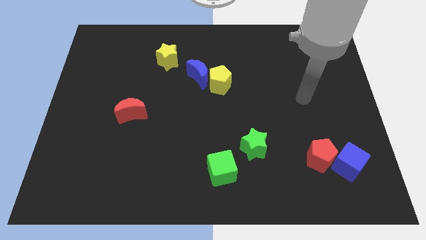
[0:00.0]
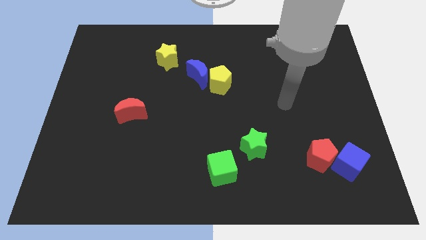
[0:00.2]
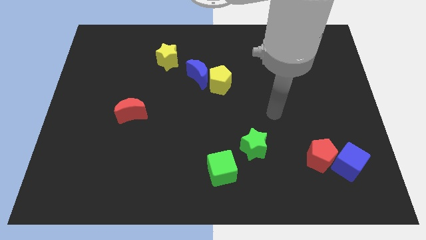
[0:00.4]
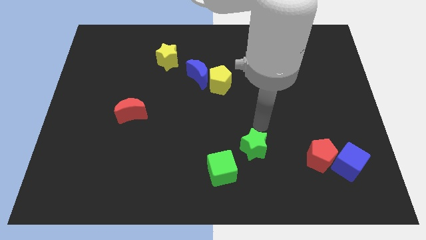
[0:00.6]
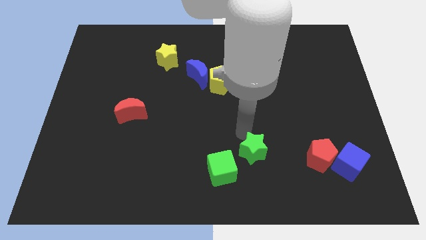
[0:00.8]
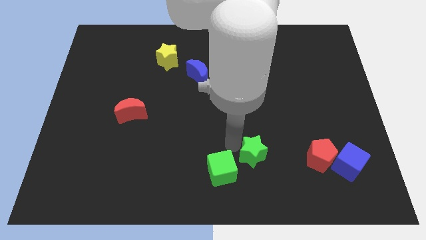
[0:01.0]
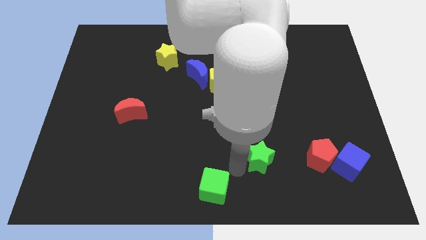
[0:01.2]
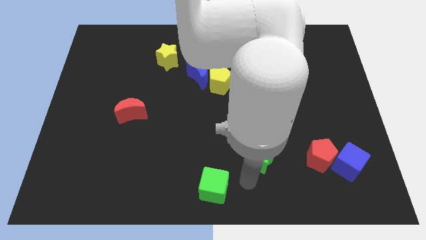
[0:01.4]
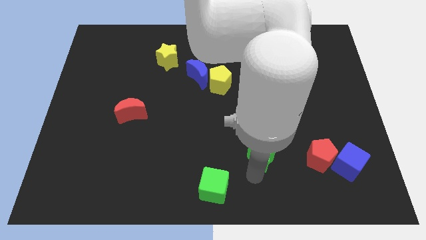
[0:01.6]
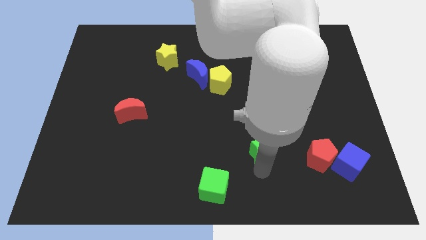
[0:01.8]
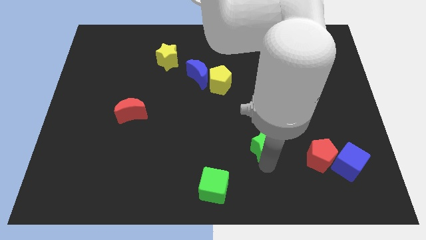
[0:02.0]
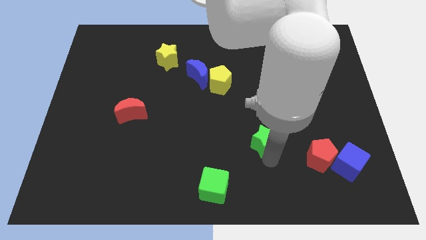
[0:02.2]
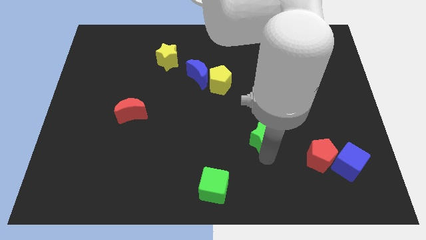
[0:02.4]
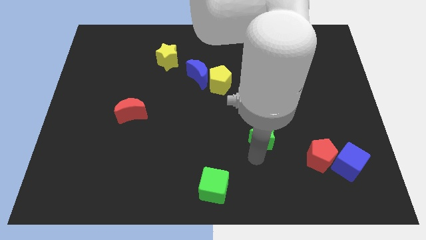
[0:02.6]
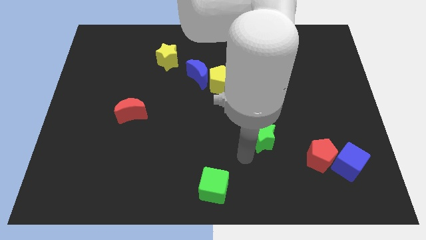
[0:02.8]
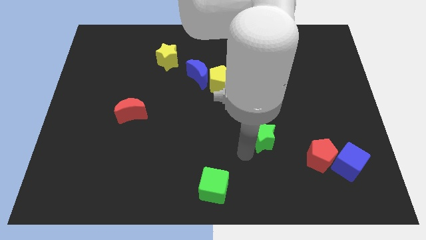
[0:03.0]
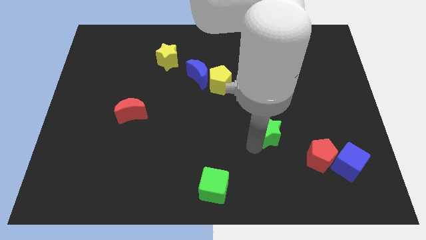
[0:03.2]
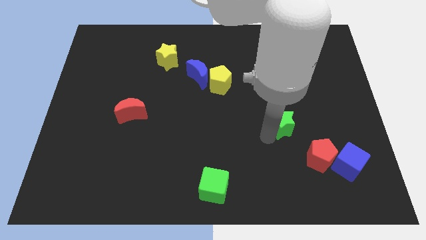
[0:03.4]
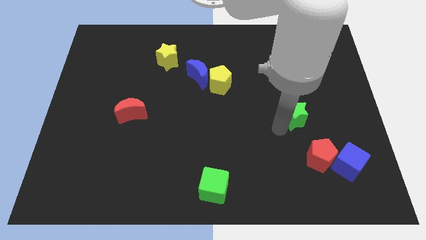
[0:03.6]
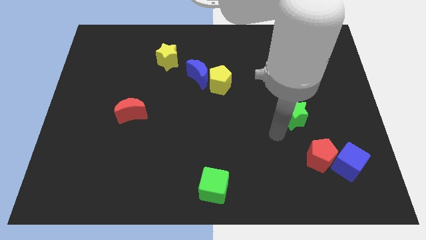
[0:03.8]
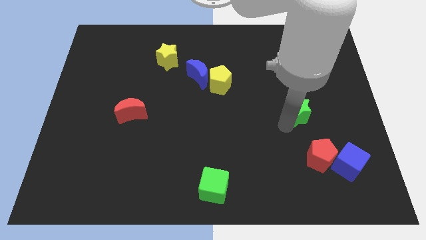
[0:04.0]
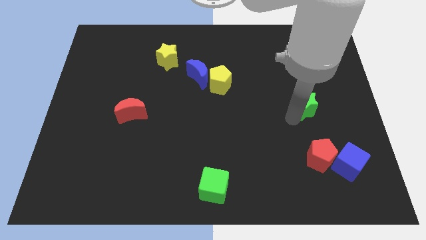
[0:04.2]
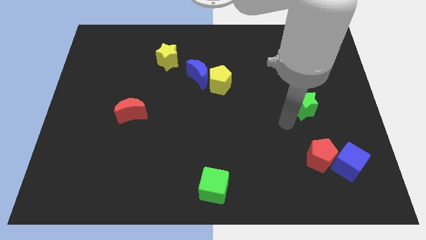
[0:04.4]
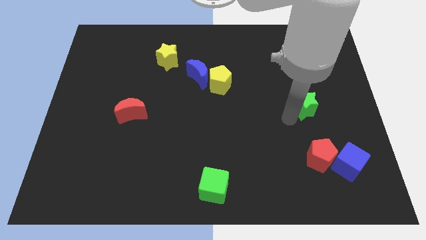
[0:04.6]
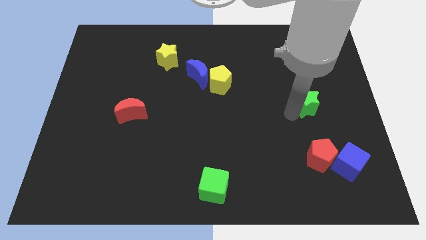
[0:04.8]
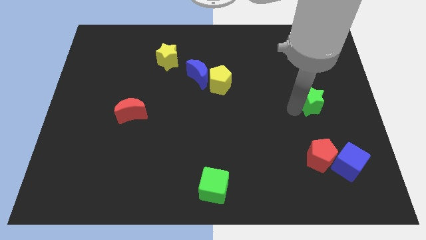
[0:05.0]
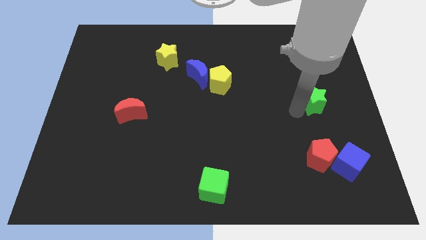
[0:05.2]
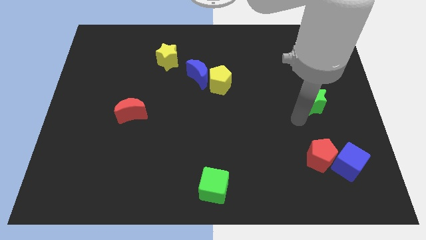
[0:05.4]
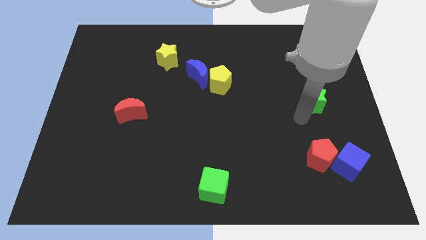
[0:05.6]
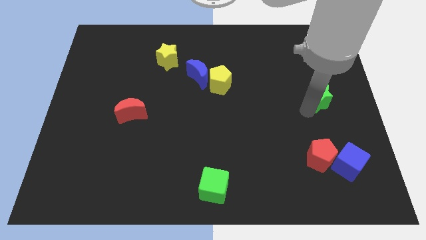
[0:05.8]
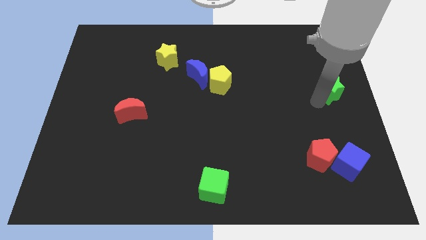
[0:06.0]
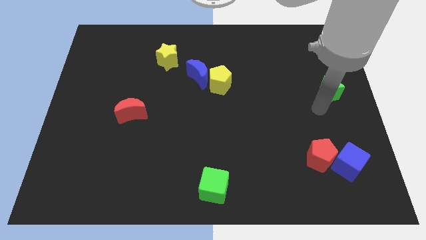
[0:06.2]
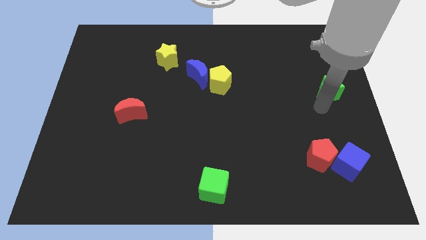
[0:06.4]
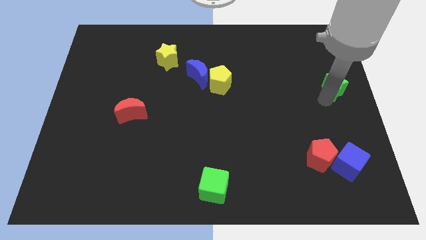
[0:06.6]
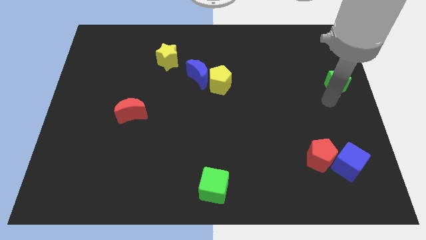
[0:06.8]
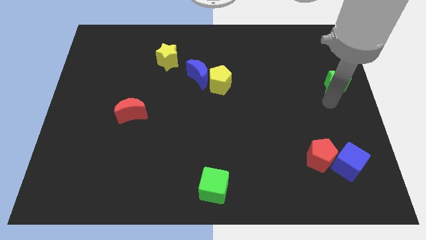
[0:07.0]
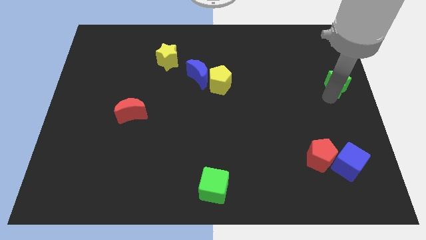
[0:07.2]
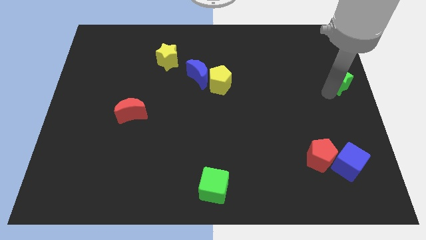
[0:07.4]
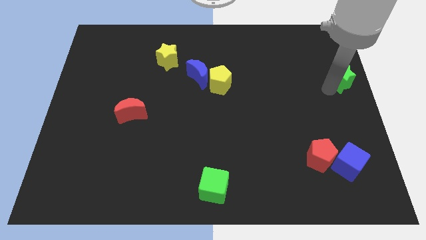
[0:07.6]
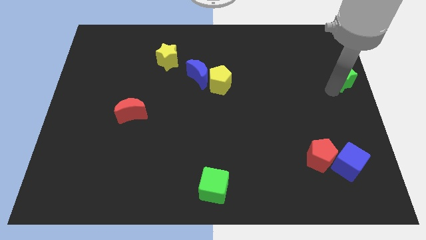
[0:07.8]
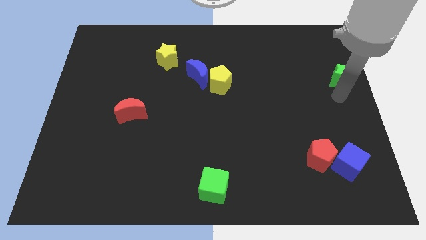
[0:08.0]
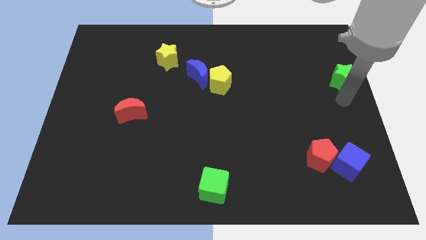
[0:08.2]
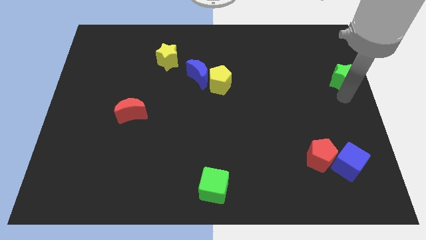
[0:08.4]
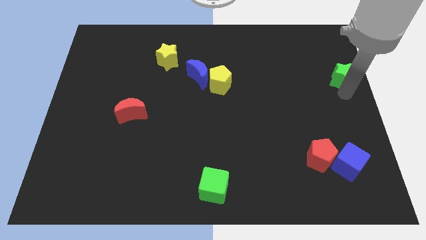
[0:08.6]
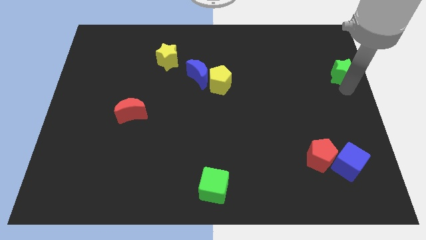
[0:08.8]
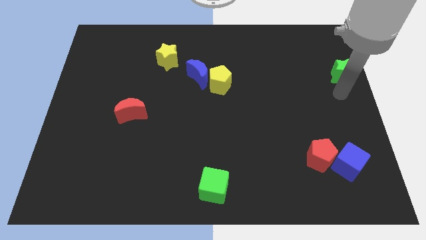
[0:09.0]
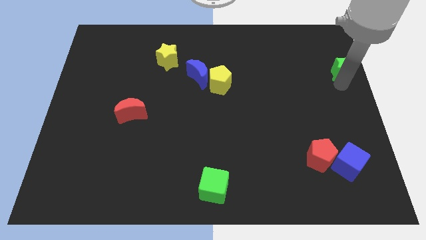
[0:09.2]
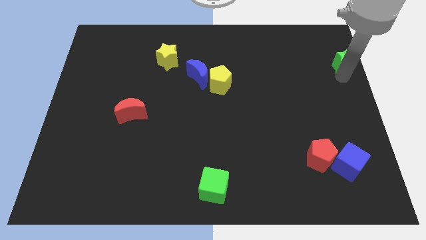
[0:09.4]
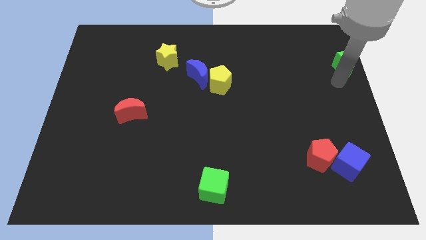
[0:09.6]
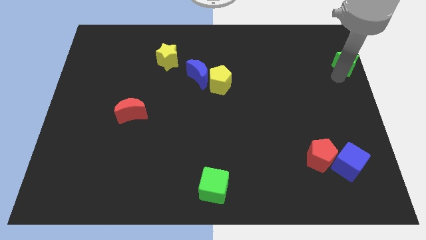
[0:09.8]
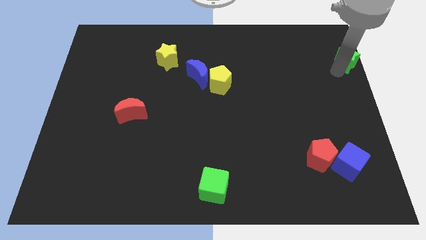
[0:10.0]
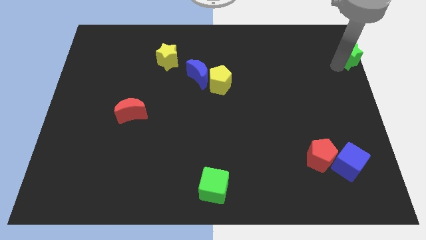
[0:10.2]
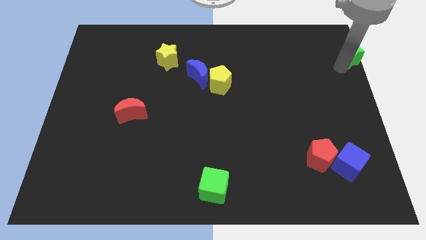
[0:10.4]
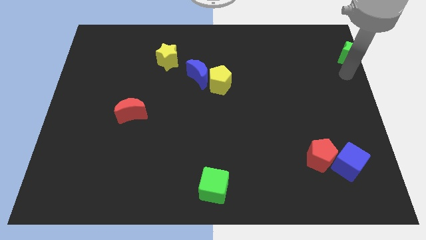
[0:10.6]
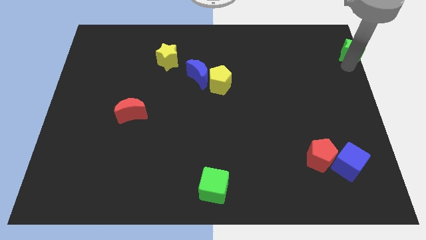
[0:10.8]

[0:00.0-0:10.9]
slide the green star to the top right of the board

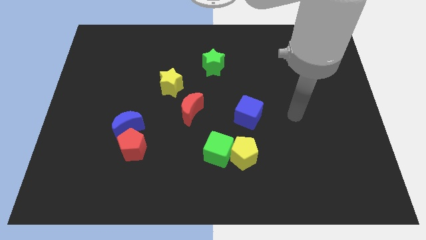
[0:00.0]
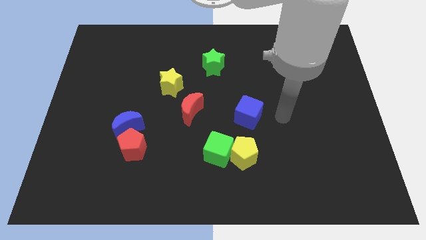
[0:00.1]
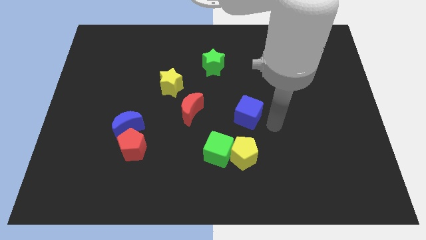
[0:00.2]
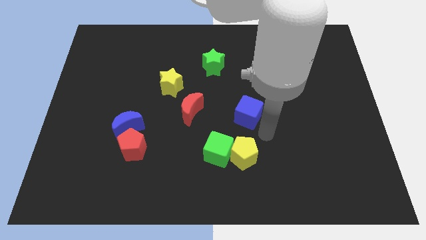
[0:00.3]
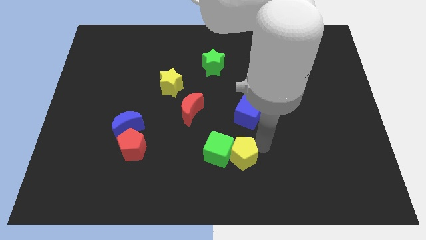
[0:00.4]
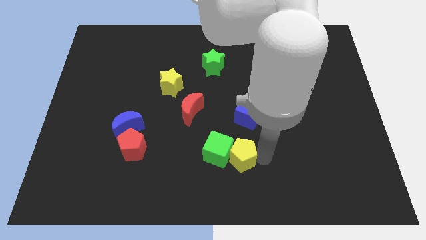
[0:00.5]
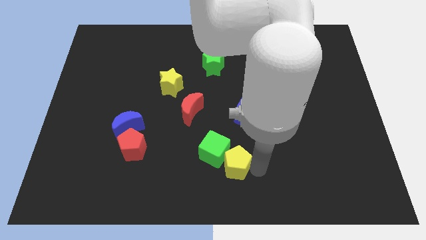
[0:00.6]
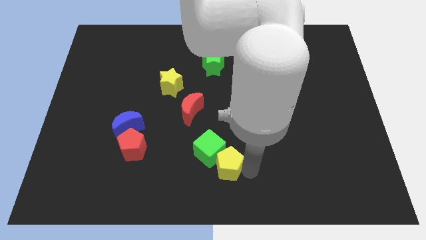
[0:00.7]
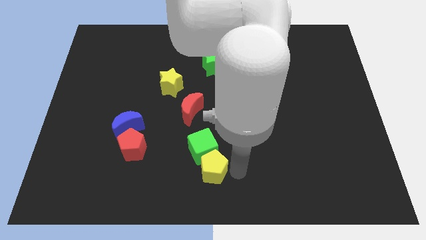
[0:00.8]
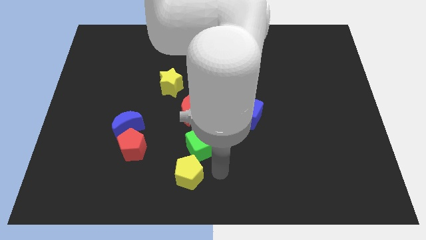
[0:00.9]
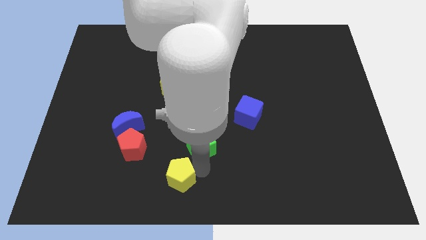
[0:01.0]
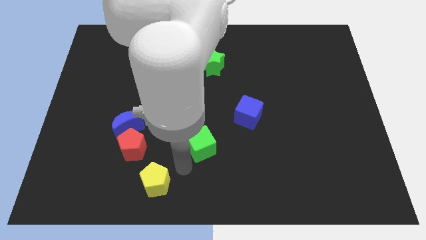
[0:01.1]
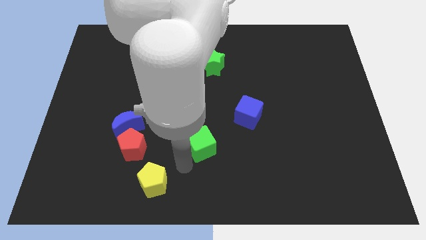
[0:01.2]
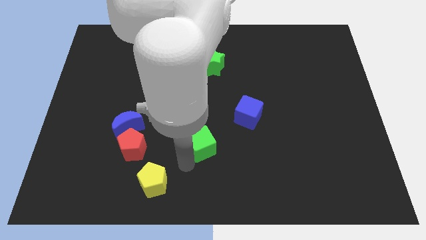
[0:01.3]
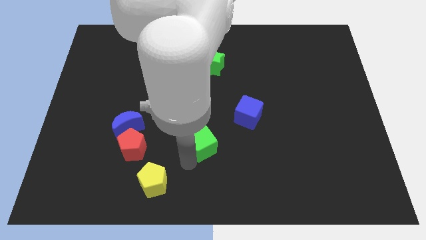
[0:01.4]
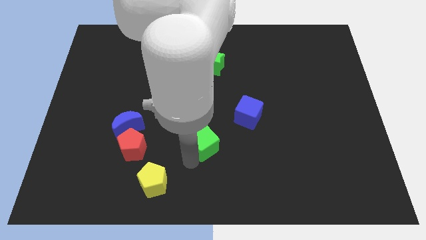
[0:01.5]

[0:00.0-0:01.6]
push the green cube to the middle
